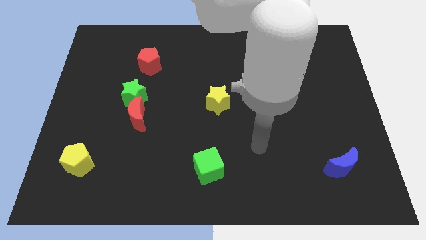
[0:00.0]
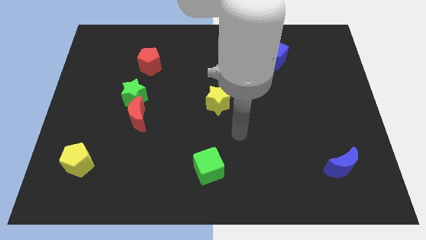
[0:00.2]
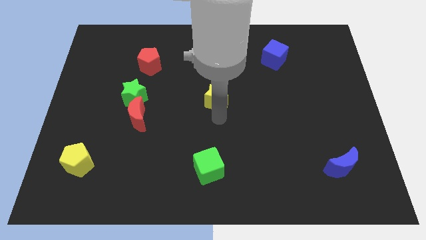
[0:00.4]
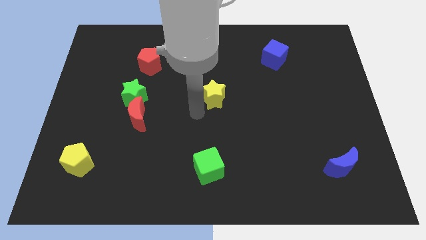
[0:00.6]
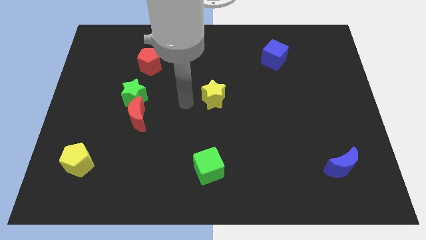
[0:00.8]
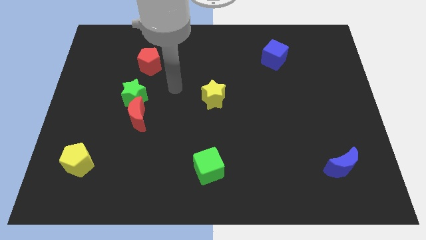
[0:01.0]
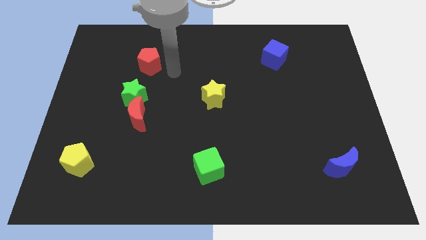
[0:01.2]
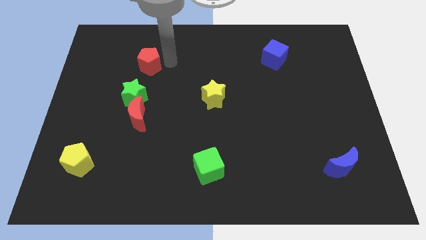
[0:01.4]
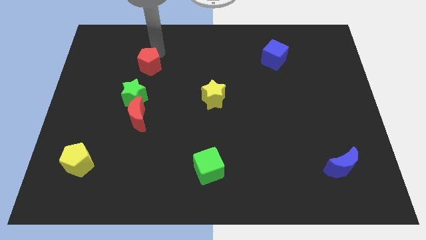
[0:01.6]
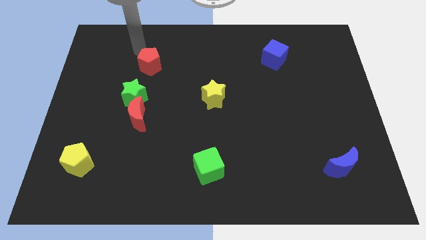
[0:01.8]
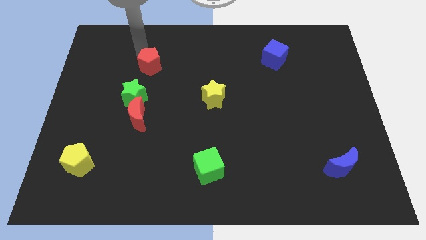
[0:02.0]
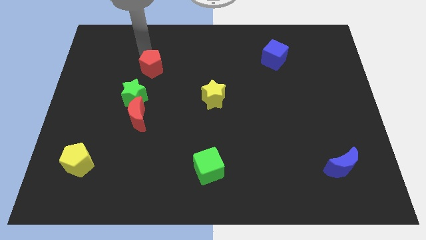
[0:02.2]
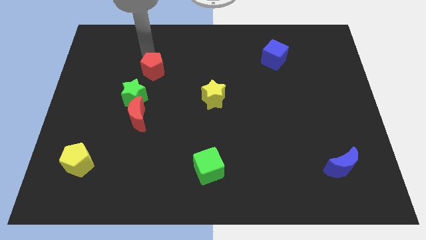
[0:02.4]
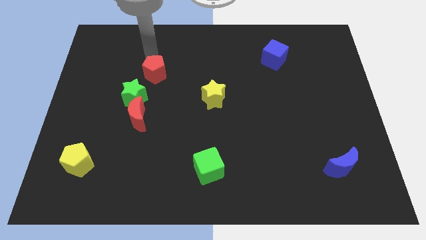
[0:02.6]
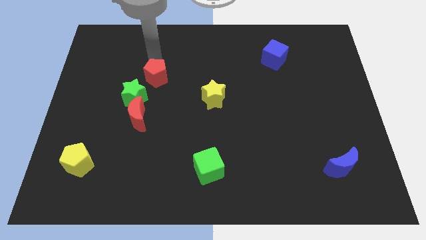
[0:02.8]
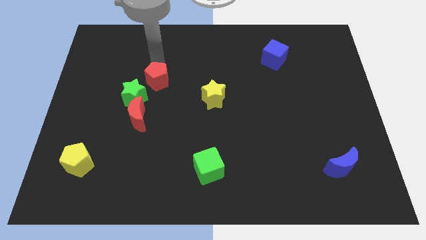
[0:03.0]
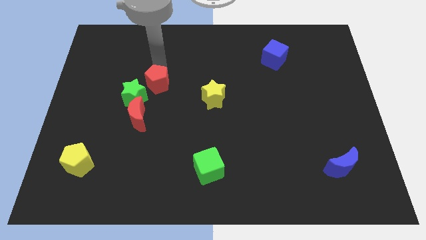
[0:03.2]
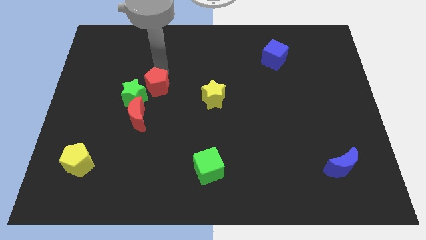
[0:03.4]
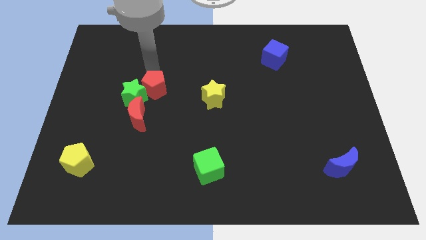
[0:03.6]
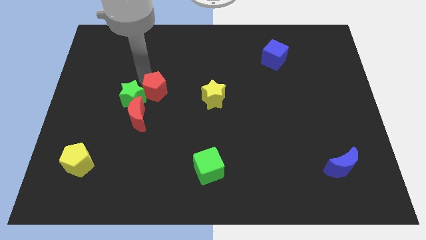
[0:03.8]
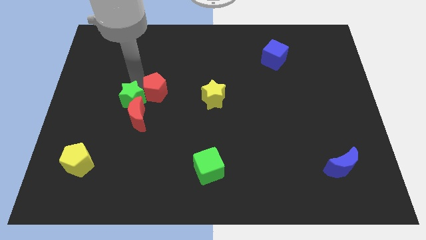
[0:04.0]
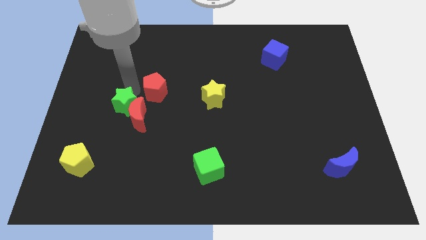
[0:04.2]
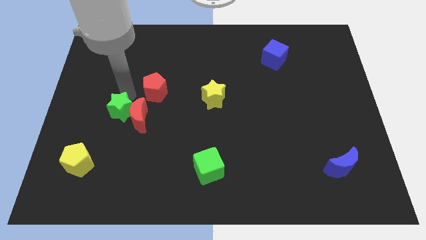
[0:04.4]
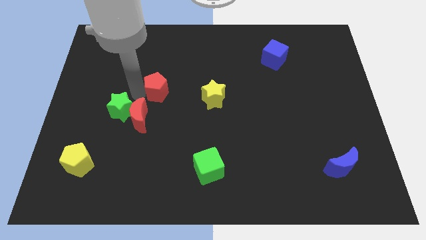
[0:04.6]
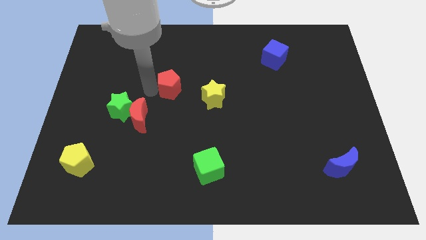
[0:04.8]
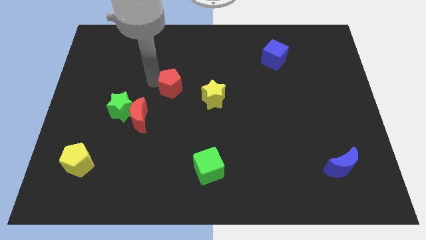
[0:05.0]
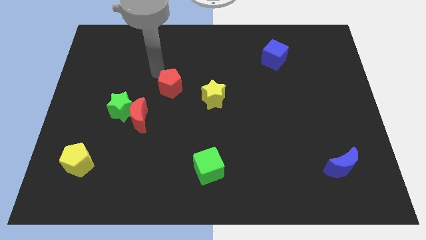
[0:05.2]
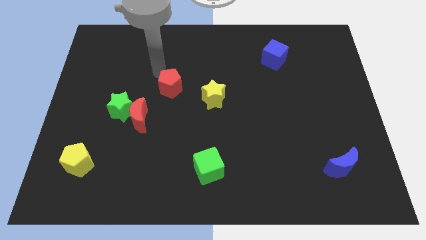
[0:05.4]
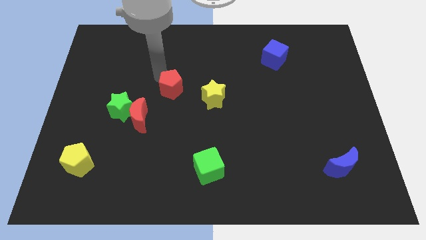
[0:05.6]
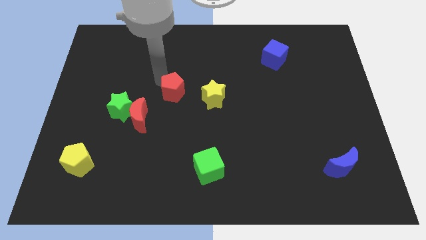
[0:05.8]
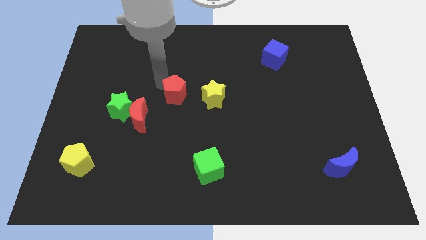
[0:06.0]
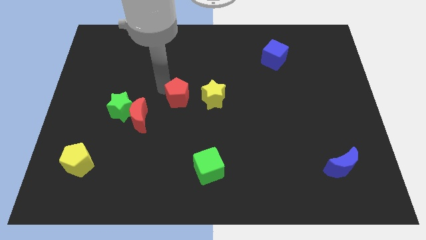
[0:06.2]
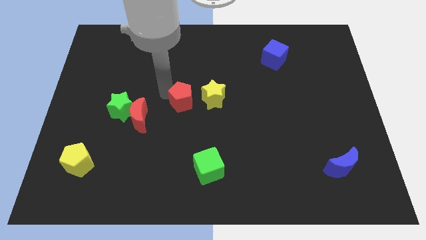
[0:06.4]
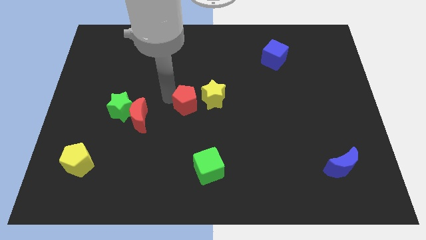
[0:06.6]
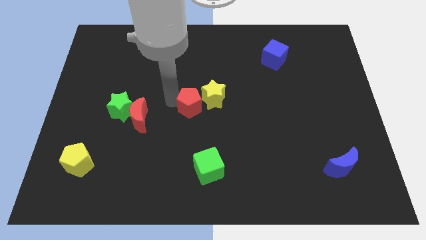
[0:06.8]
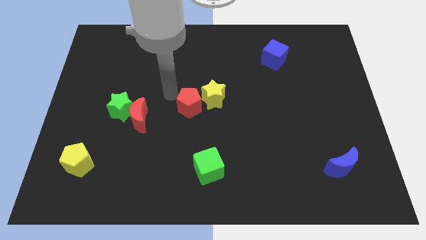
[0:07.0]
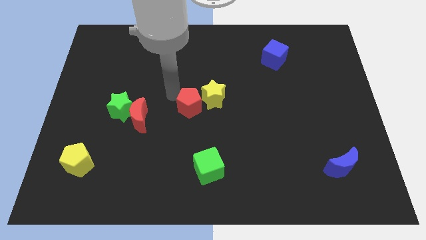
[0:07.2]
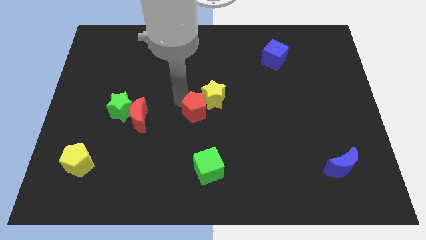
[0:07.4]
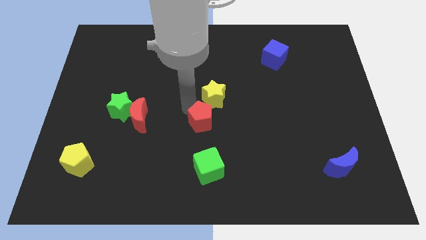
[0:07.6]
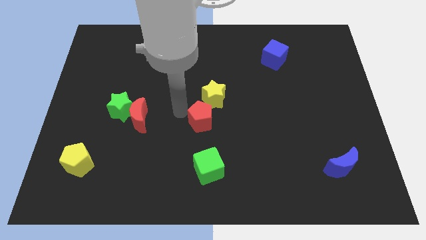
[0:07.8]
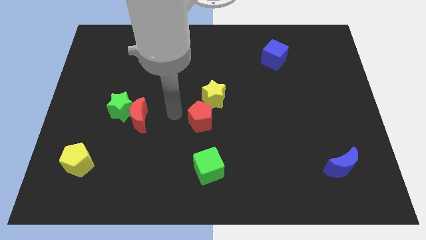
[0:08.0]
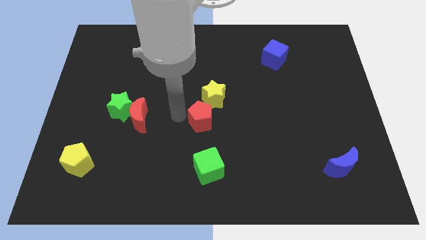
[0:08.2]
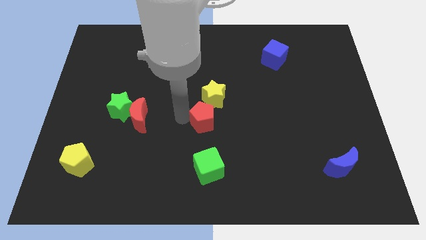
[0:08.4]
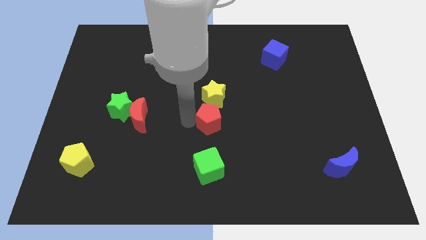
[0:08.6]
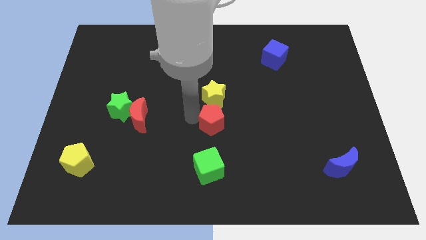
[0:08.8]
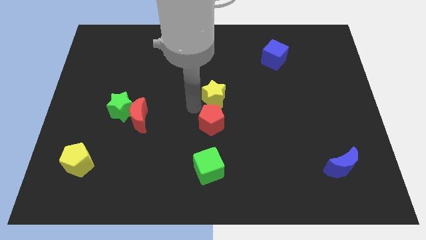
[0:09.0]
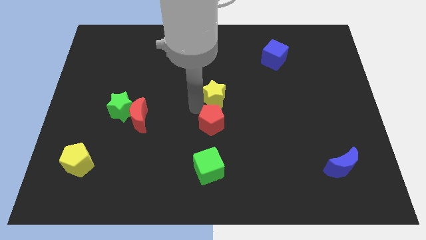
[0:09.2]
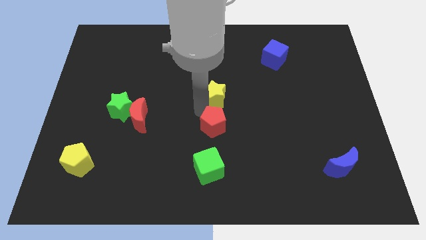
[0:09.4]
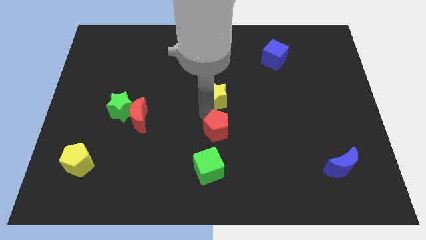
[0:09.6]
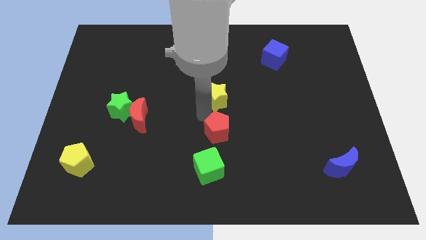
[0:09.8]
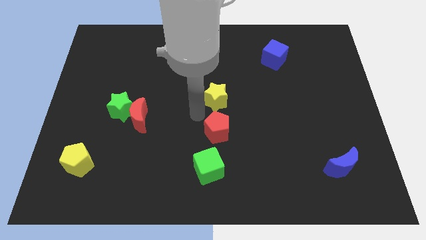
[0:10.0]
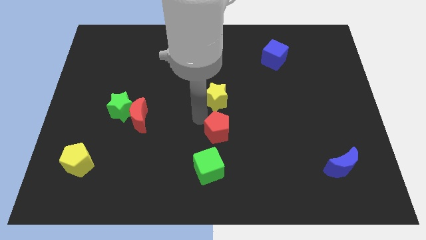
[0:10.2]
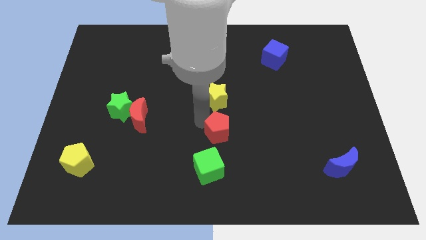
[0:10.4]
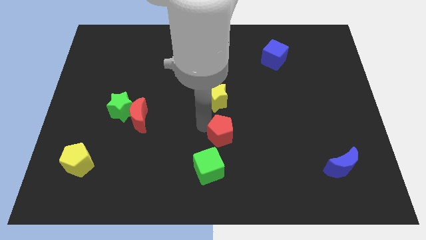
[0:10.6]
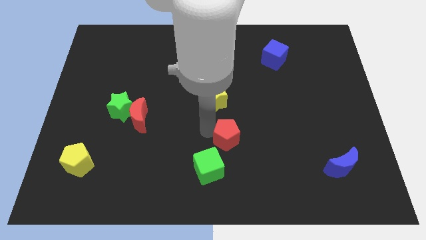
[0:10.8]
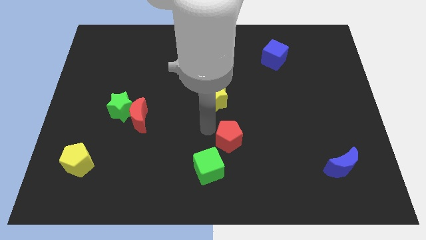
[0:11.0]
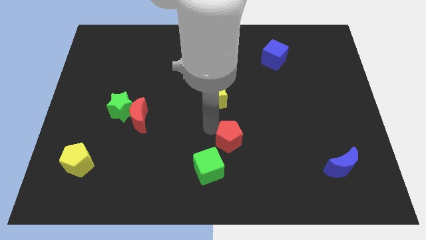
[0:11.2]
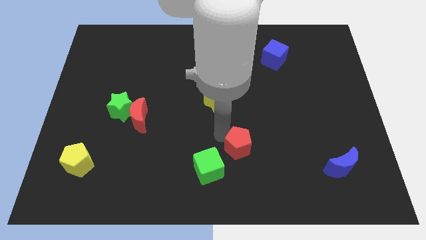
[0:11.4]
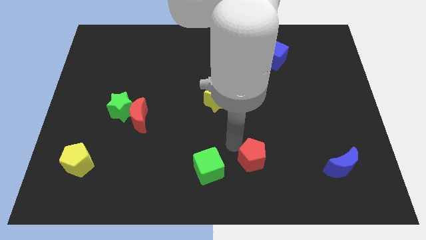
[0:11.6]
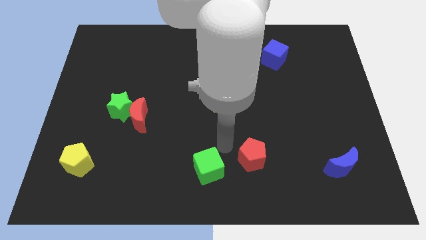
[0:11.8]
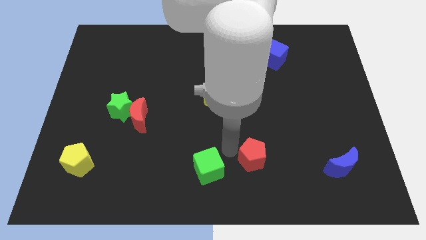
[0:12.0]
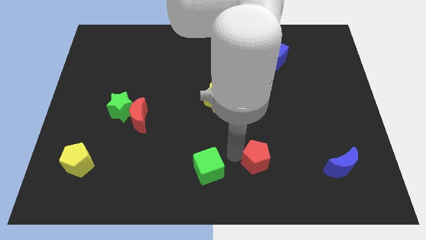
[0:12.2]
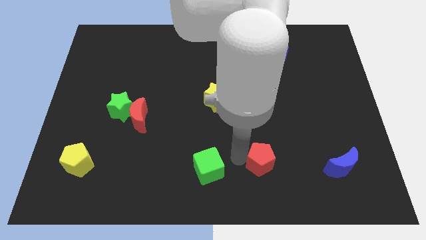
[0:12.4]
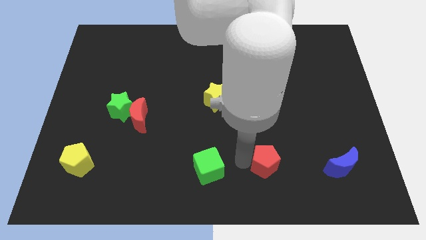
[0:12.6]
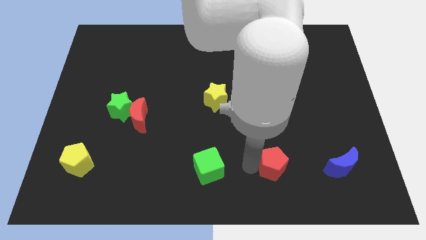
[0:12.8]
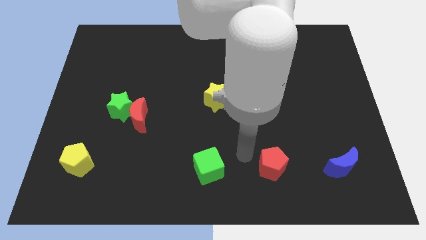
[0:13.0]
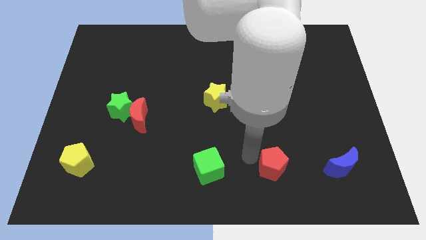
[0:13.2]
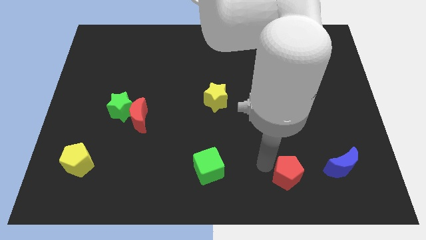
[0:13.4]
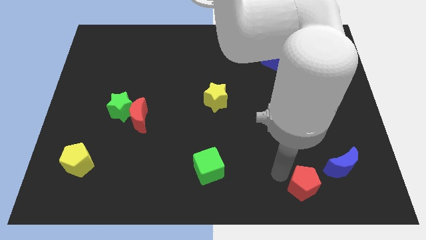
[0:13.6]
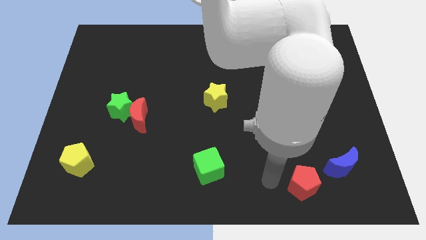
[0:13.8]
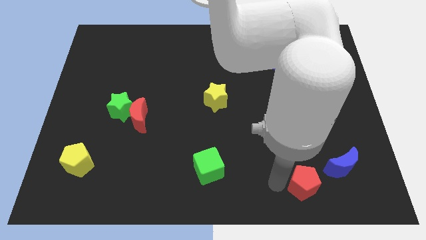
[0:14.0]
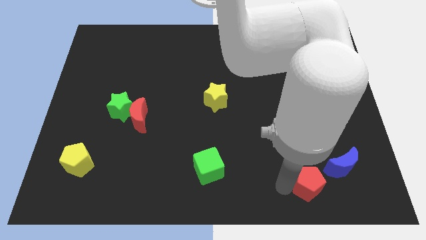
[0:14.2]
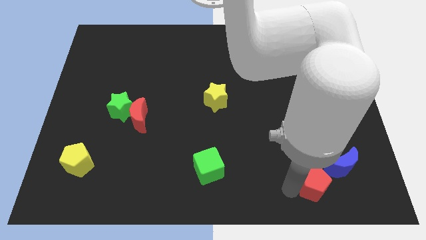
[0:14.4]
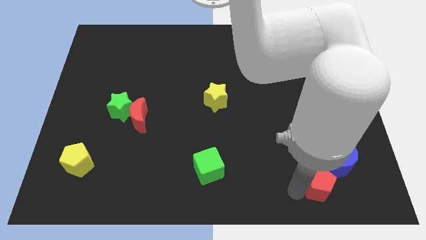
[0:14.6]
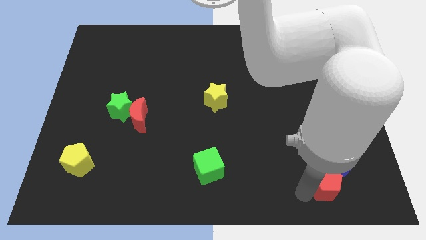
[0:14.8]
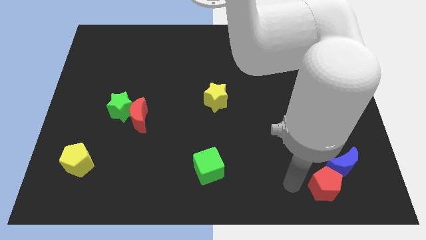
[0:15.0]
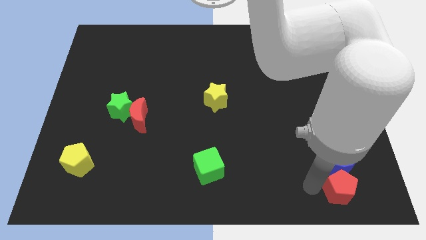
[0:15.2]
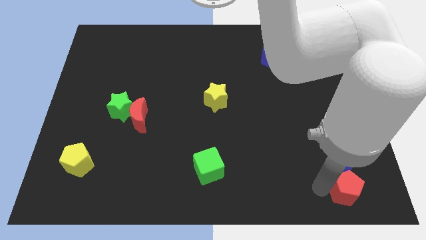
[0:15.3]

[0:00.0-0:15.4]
push the red pentagon to the lower right corner
